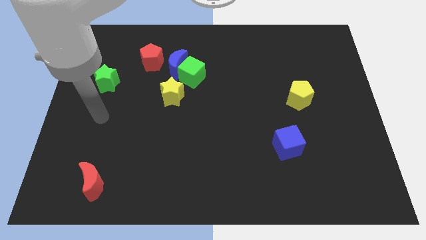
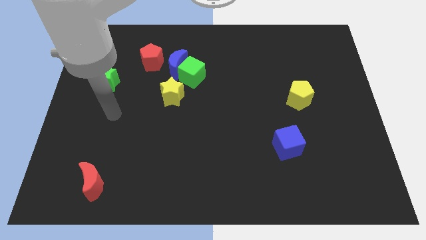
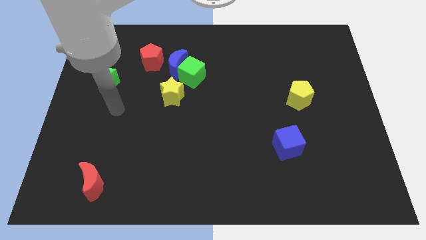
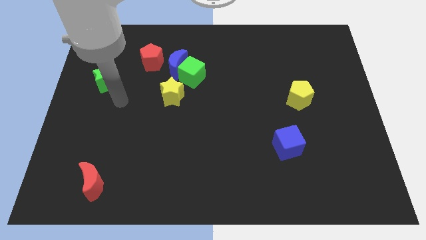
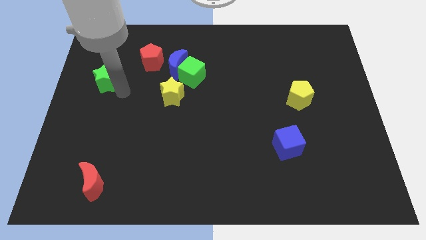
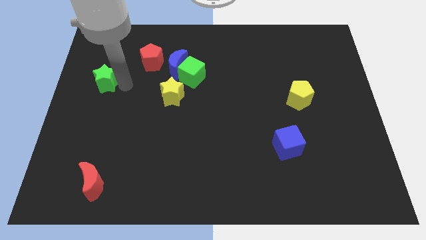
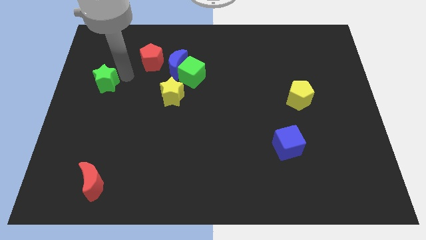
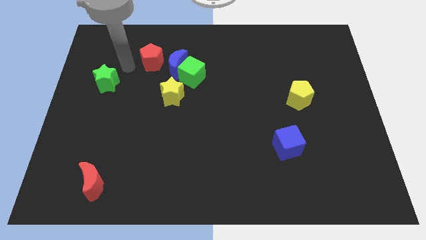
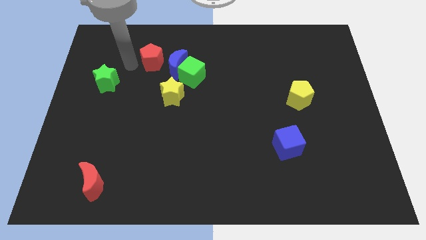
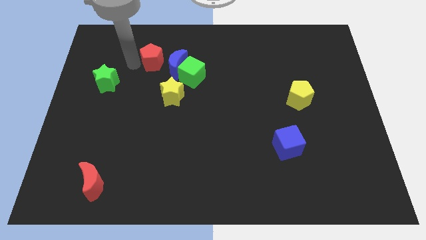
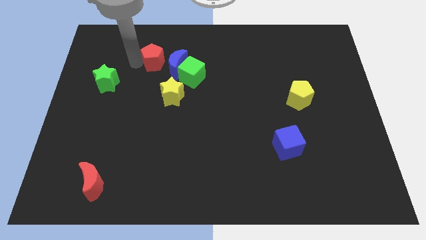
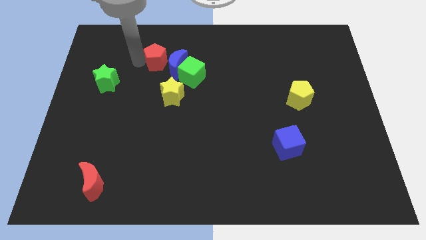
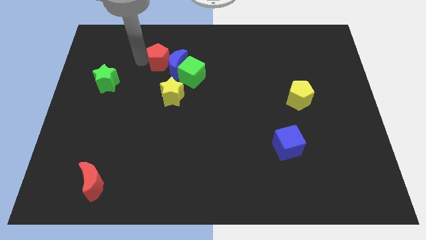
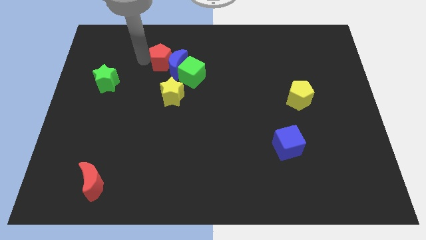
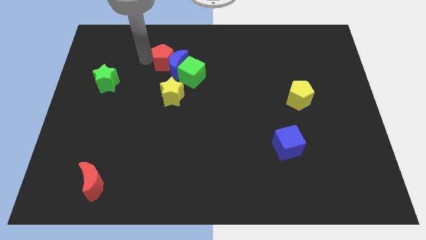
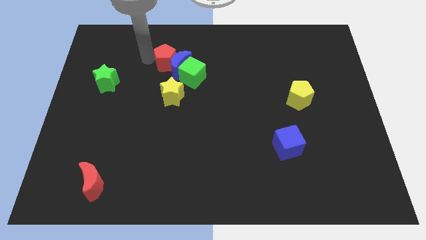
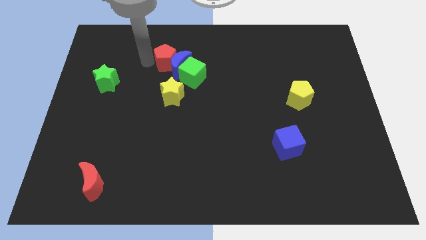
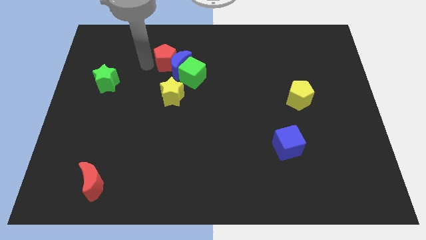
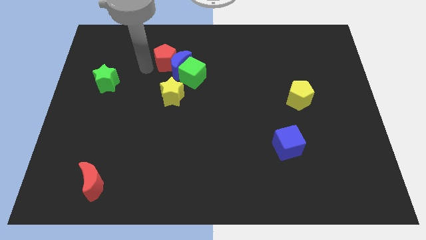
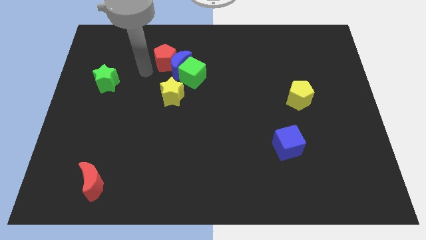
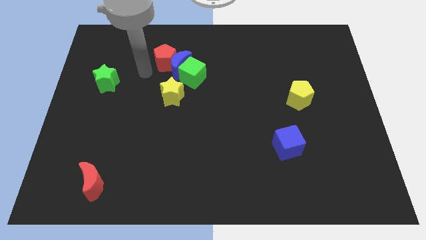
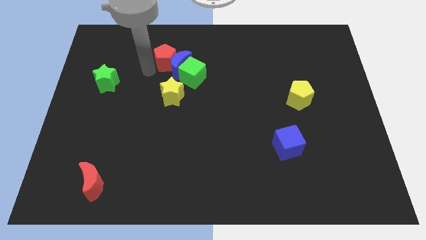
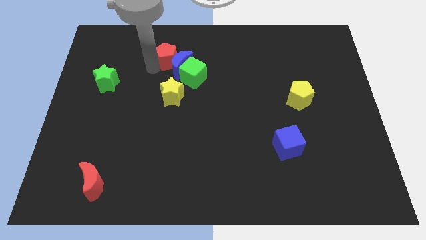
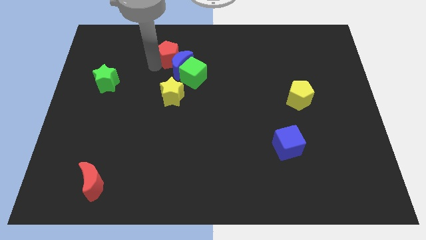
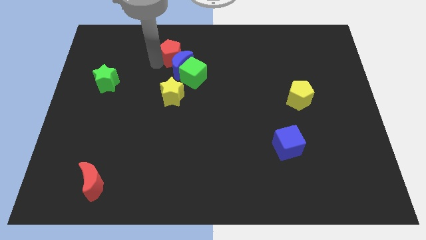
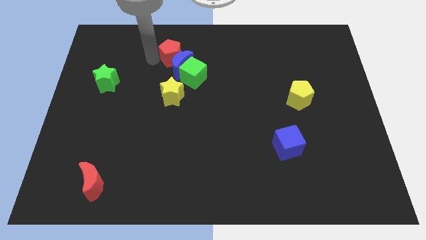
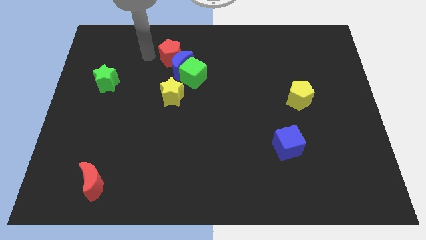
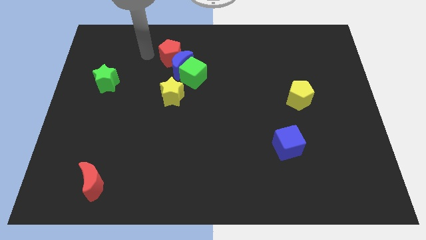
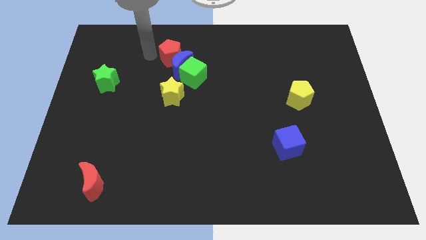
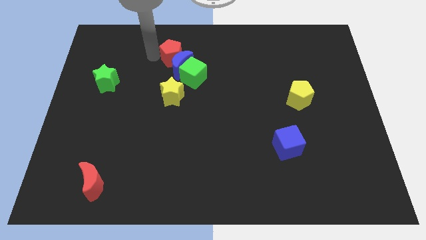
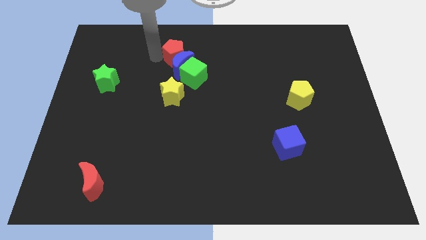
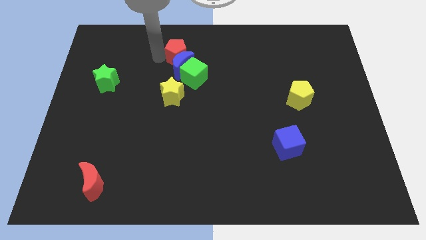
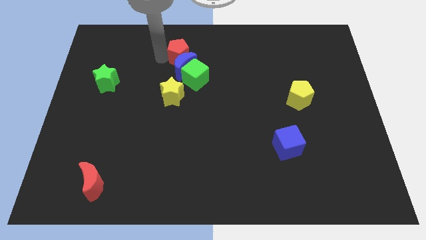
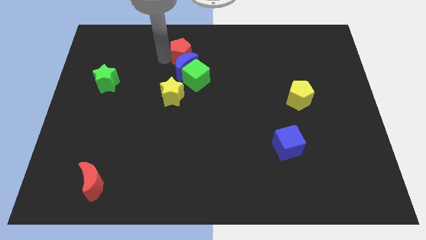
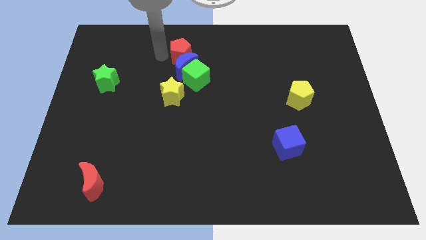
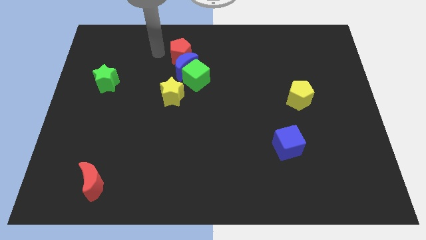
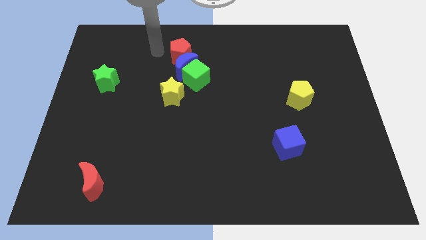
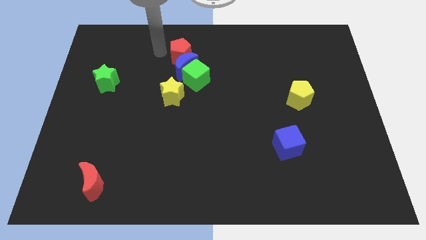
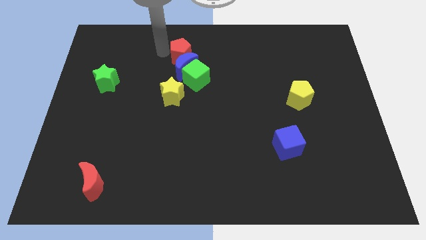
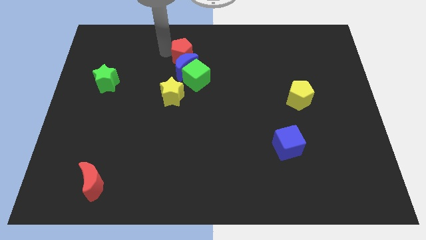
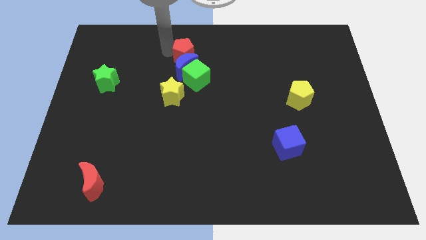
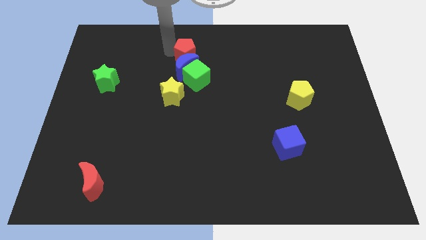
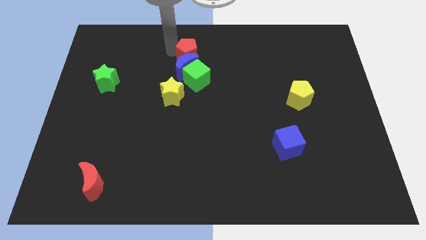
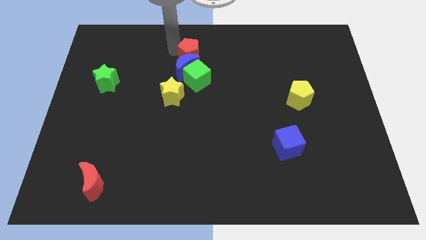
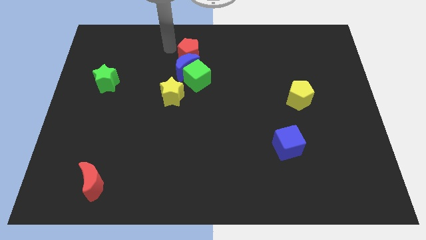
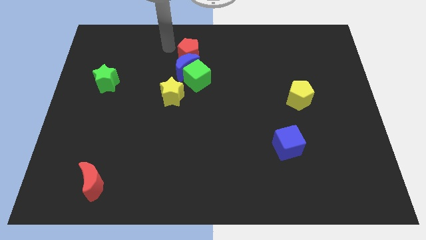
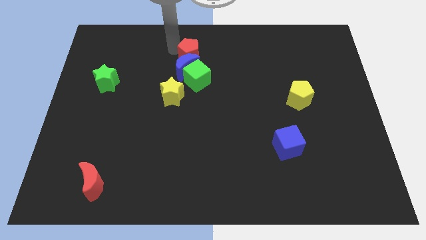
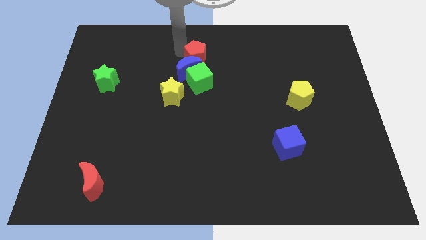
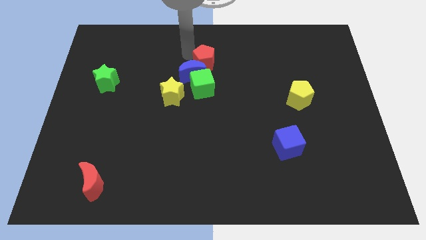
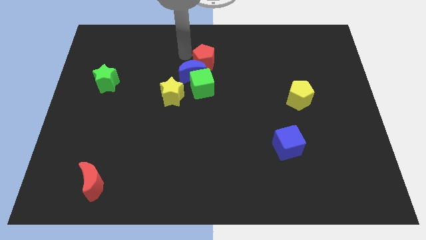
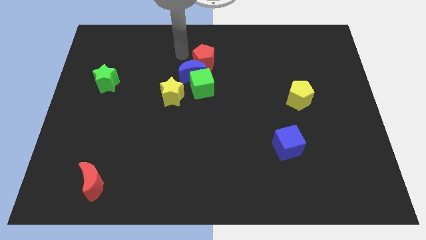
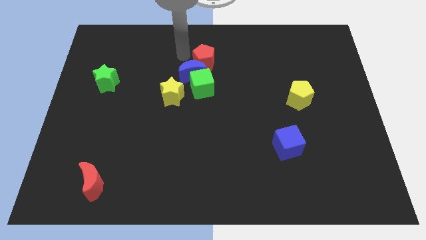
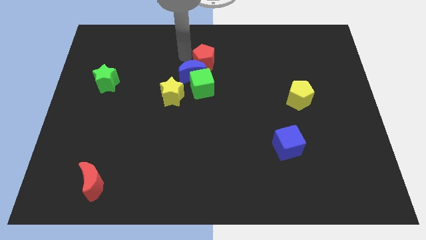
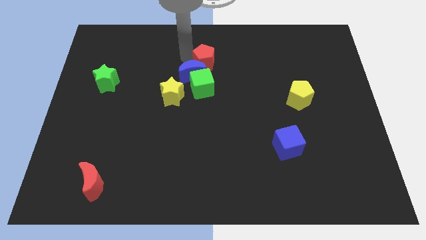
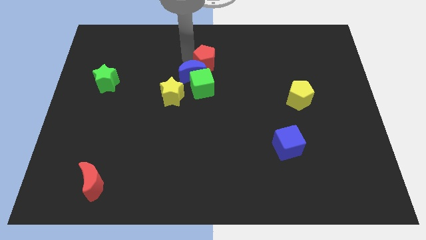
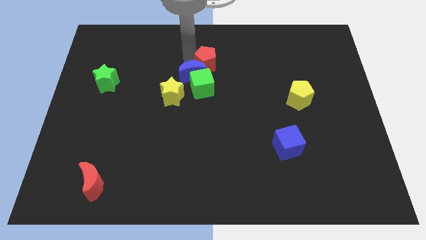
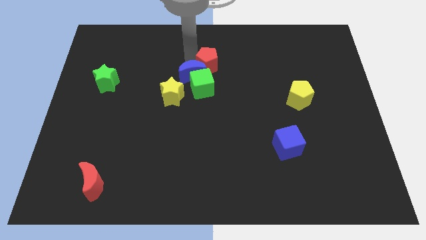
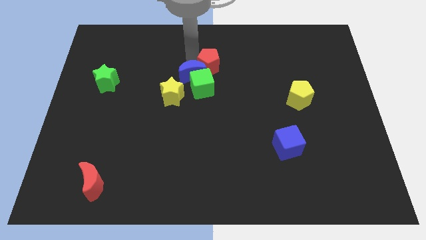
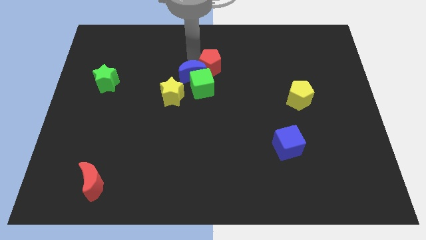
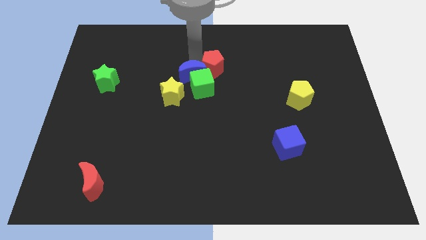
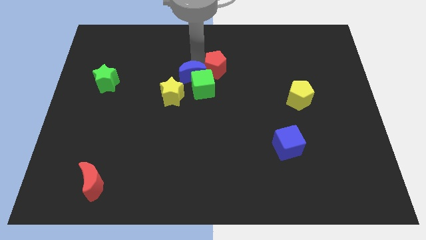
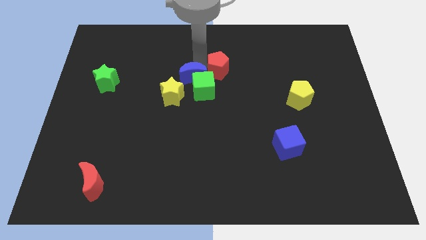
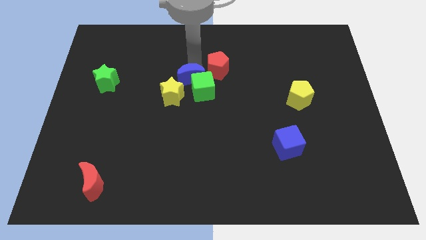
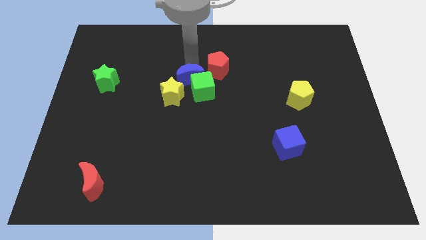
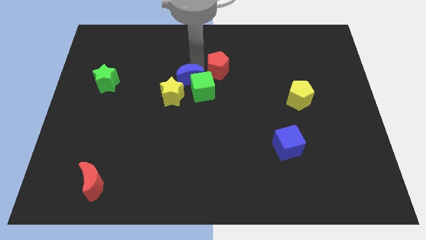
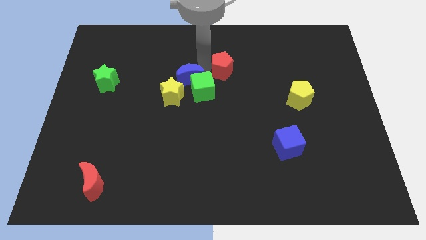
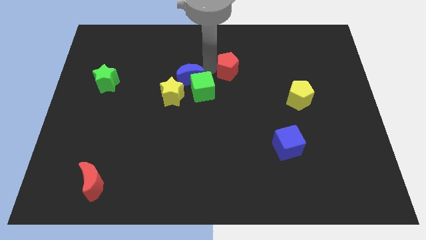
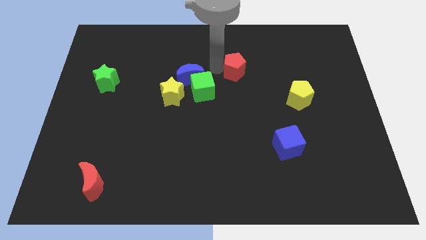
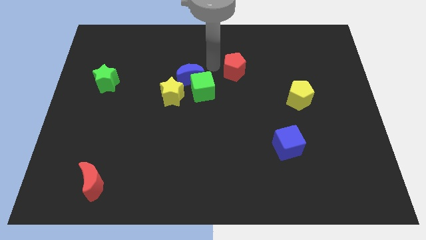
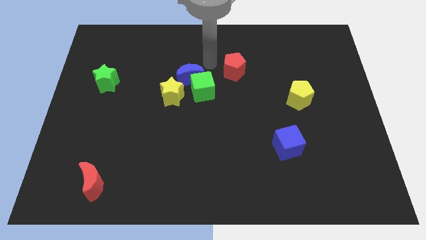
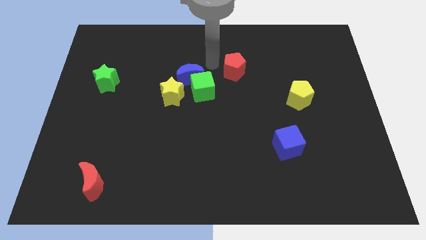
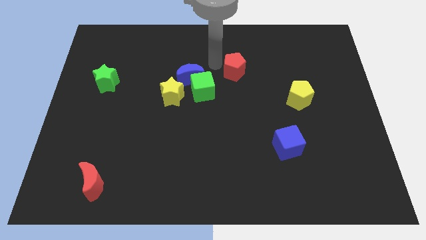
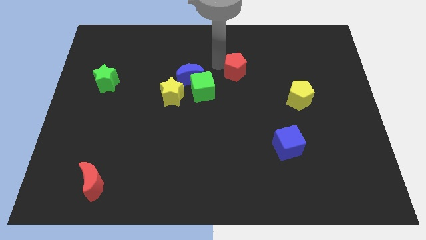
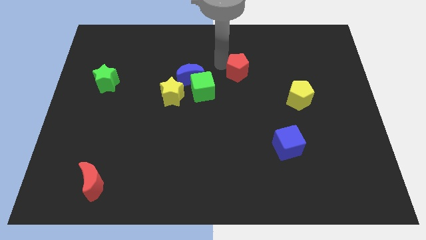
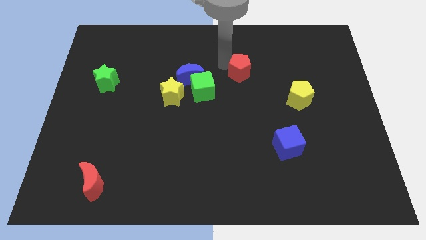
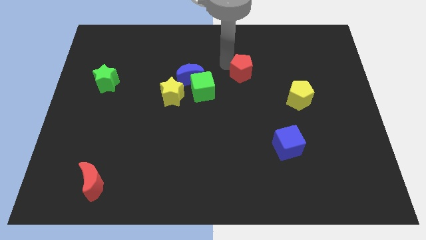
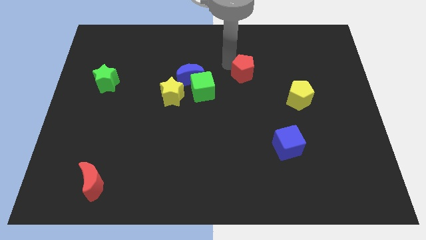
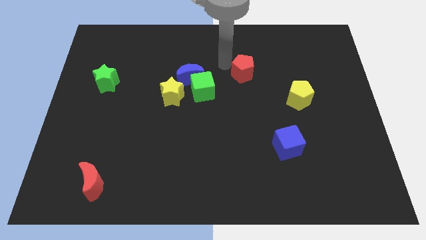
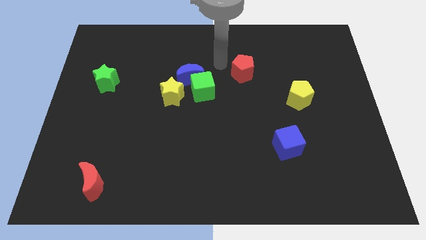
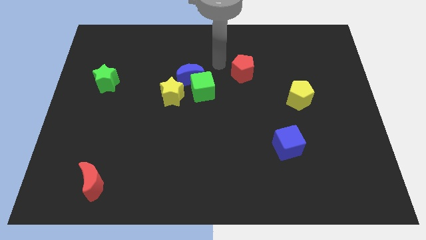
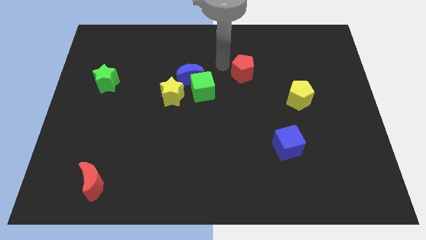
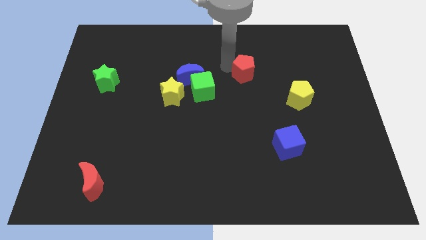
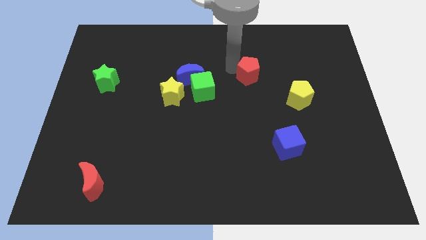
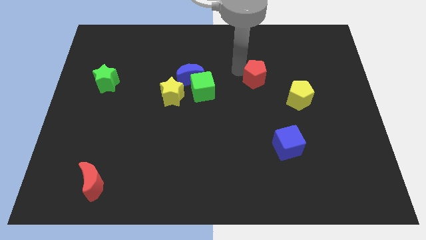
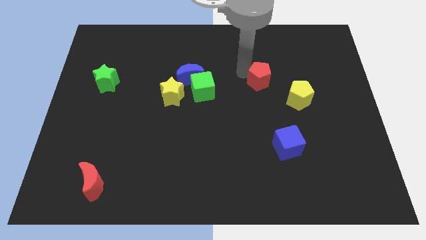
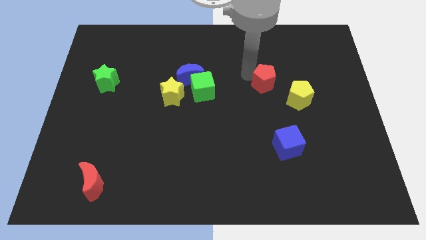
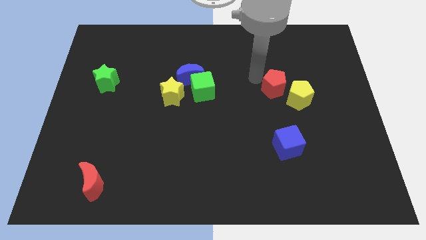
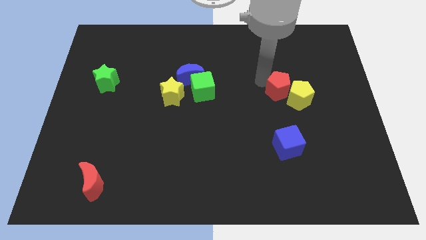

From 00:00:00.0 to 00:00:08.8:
put the red pentagon next to the yellow pentagon
